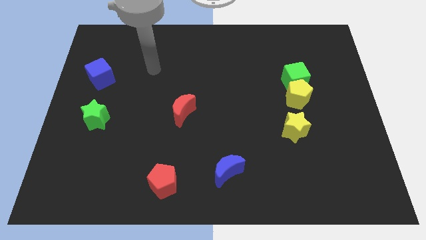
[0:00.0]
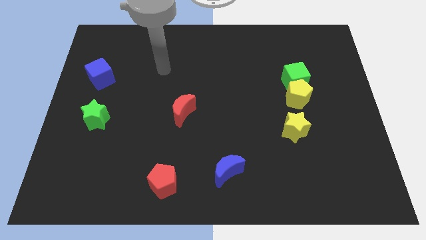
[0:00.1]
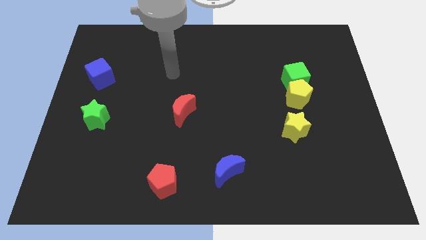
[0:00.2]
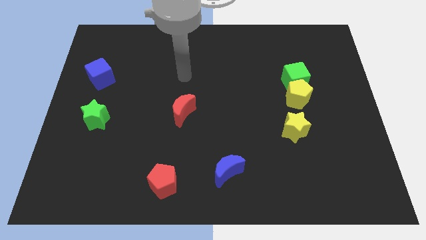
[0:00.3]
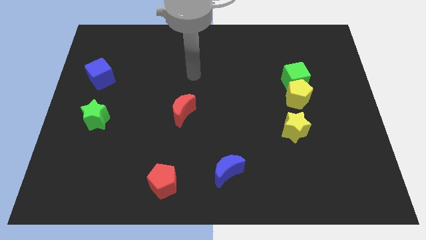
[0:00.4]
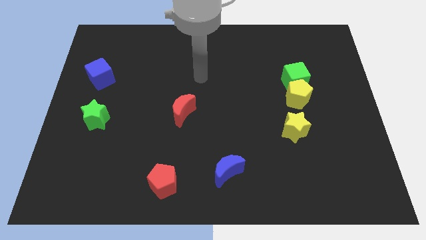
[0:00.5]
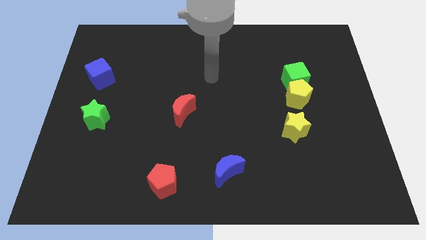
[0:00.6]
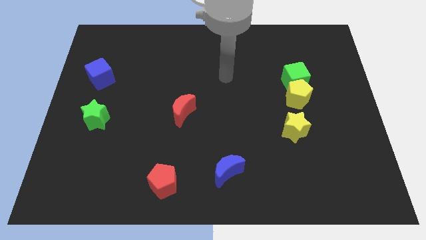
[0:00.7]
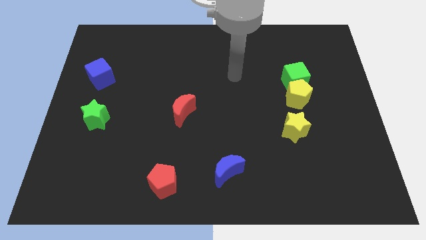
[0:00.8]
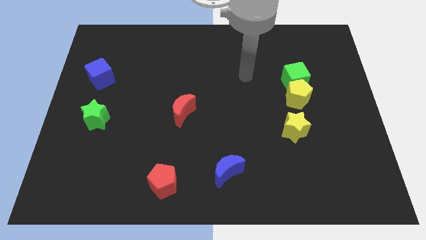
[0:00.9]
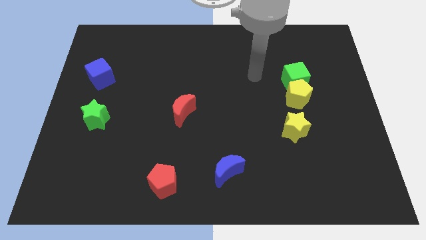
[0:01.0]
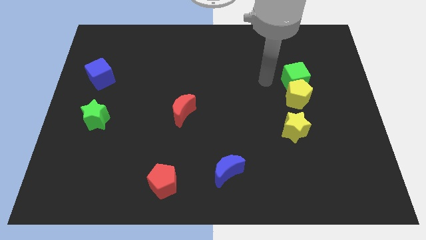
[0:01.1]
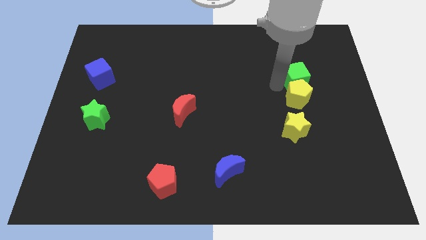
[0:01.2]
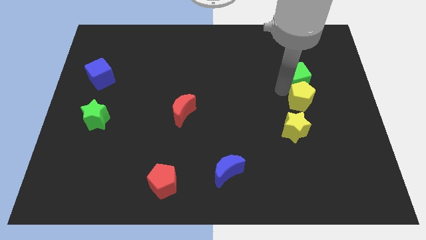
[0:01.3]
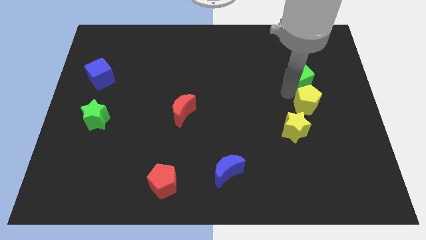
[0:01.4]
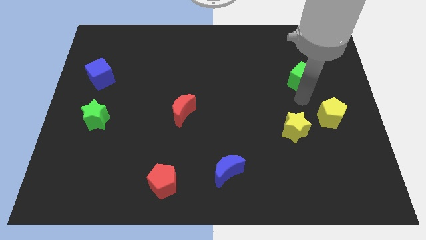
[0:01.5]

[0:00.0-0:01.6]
separate the green cube from the yellow pentagon

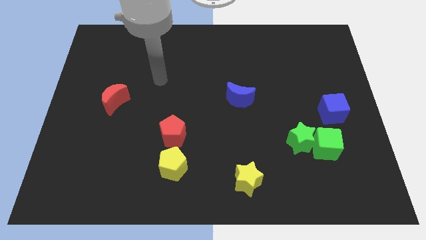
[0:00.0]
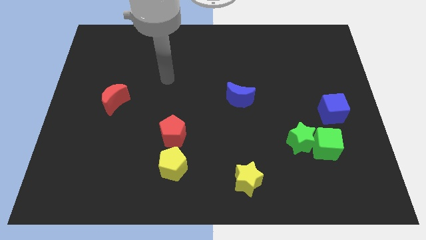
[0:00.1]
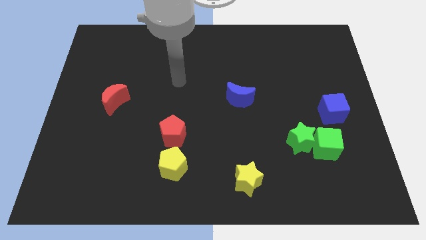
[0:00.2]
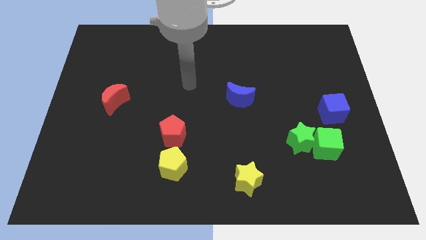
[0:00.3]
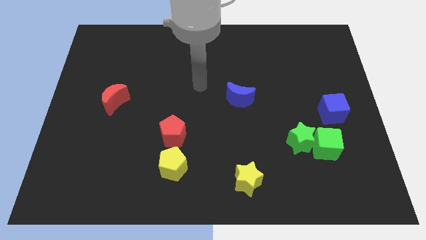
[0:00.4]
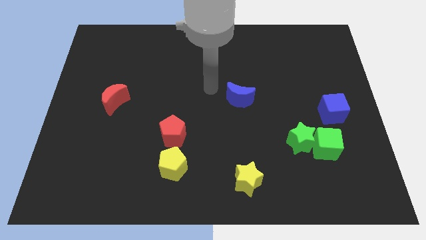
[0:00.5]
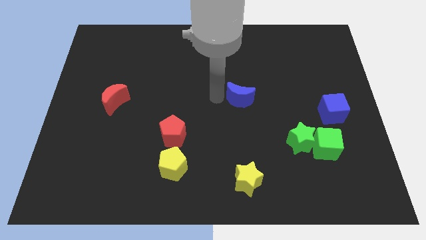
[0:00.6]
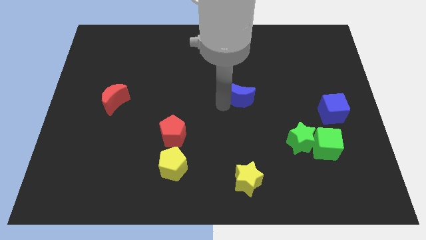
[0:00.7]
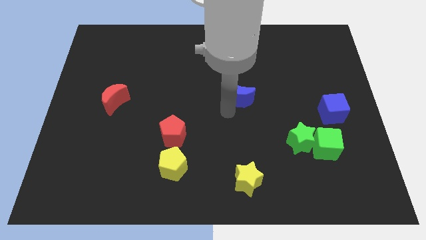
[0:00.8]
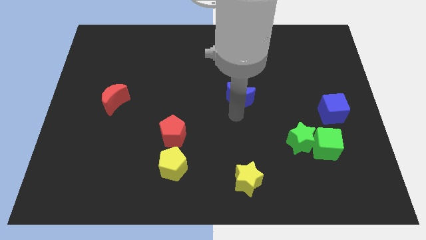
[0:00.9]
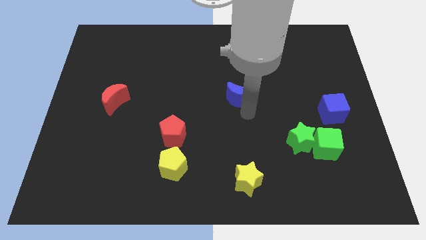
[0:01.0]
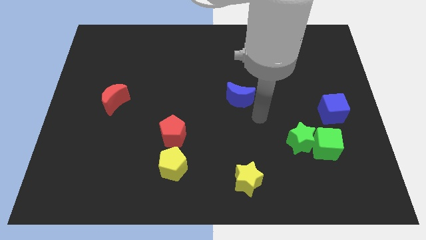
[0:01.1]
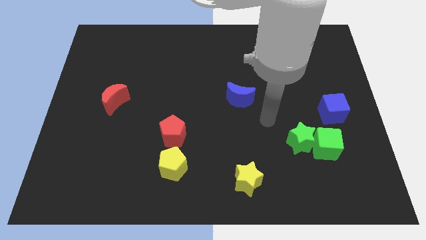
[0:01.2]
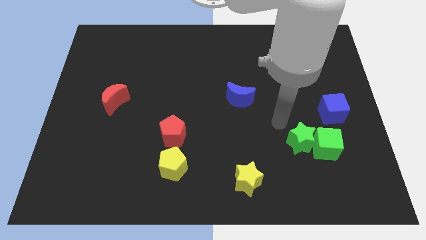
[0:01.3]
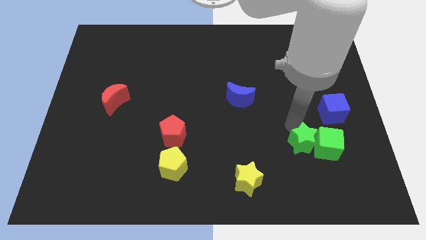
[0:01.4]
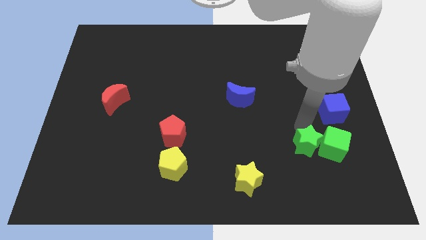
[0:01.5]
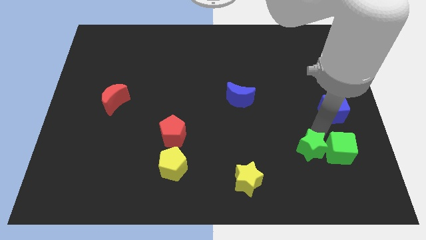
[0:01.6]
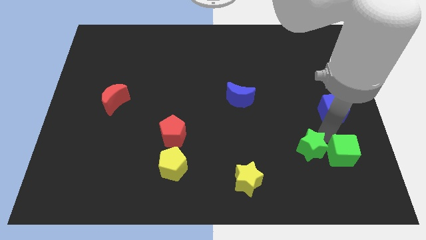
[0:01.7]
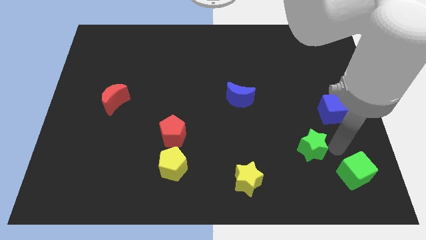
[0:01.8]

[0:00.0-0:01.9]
pull the green star apart from the green cube

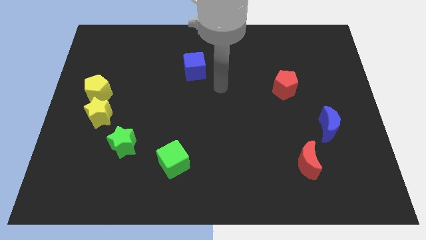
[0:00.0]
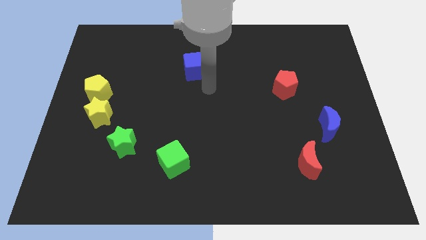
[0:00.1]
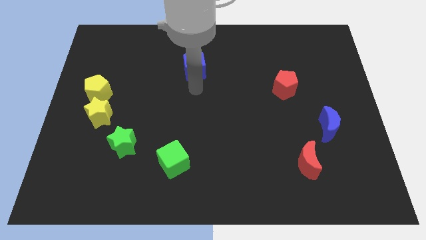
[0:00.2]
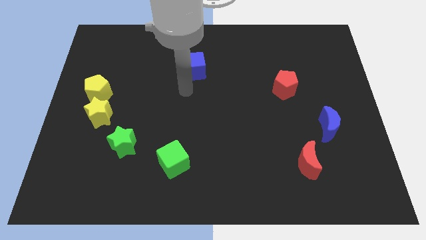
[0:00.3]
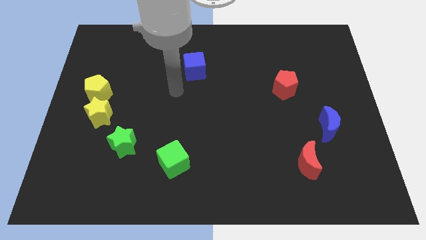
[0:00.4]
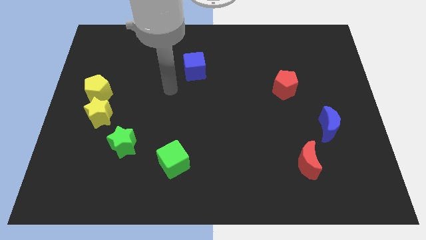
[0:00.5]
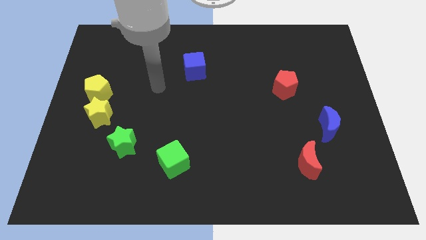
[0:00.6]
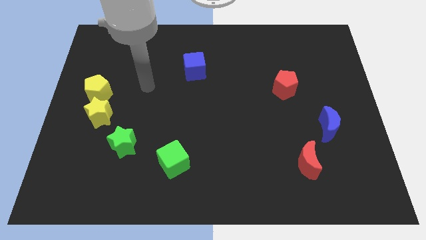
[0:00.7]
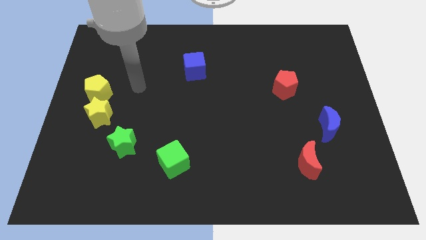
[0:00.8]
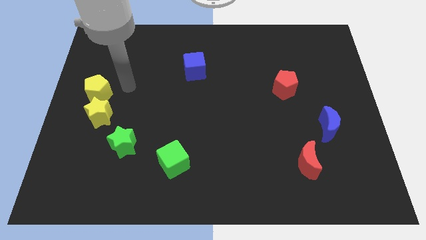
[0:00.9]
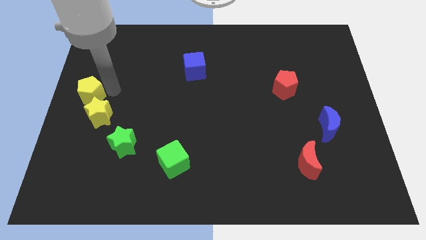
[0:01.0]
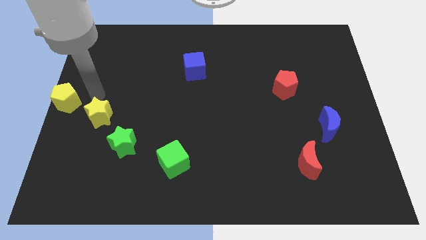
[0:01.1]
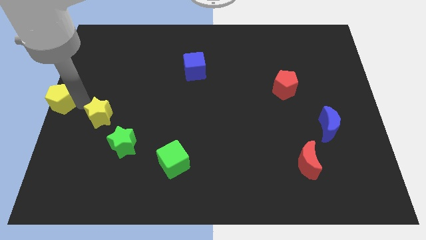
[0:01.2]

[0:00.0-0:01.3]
separate the yellow star from the yellow pentagon

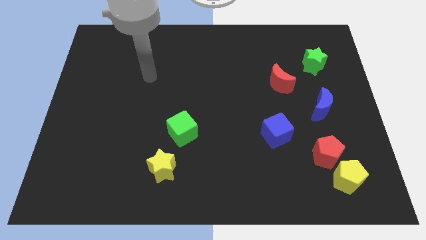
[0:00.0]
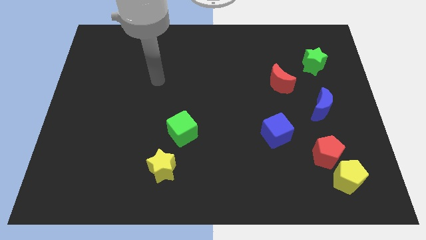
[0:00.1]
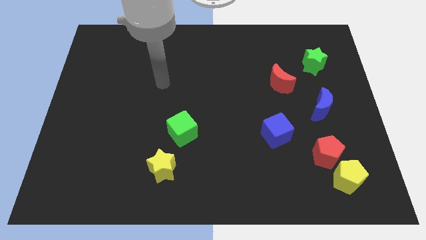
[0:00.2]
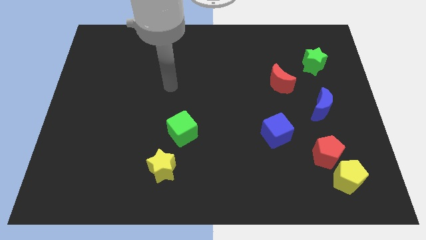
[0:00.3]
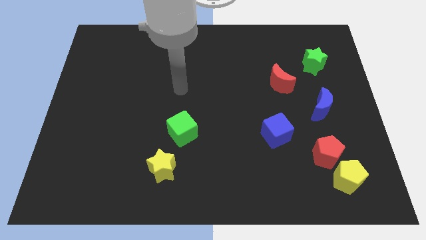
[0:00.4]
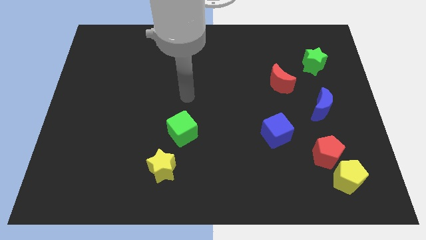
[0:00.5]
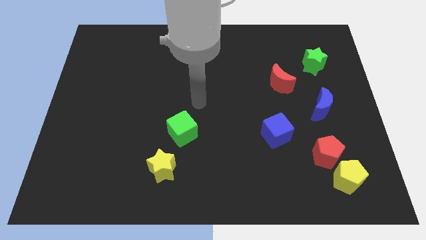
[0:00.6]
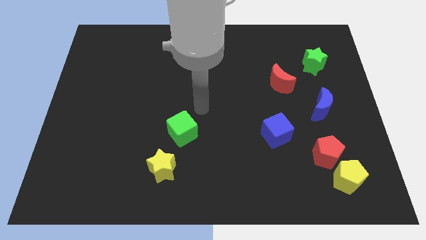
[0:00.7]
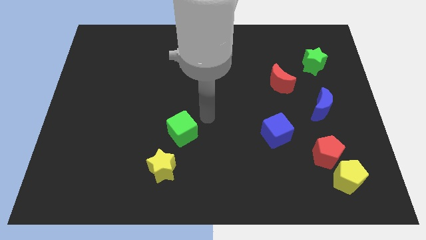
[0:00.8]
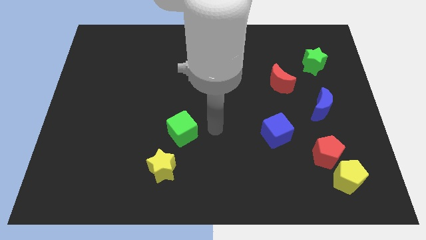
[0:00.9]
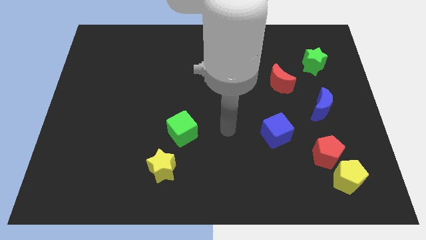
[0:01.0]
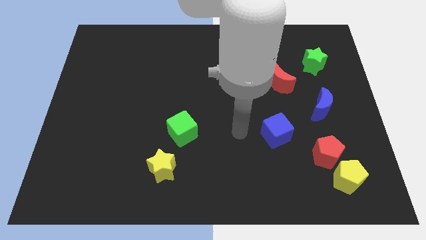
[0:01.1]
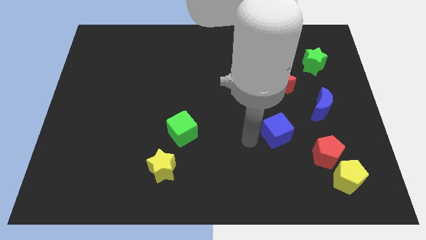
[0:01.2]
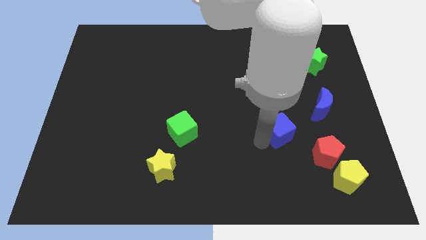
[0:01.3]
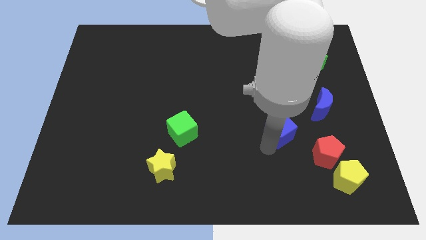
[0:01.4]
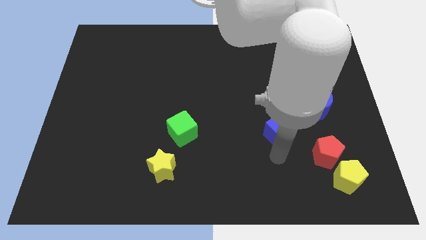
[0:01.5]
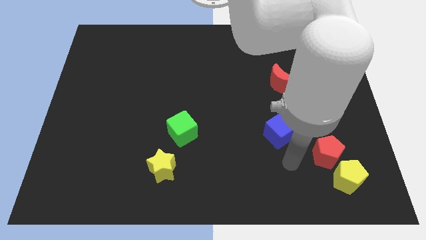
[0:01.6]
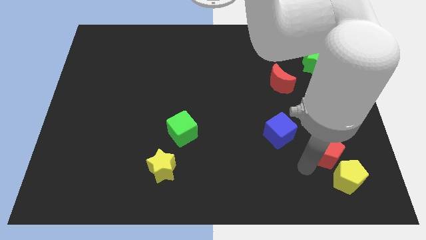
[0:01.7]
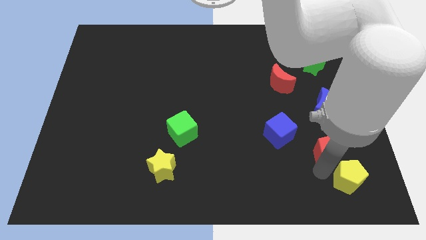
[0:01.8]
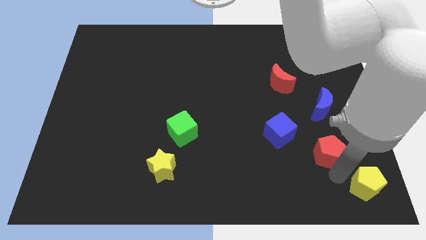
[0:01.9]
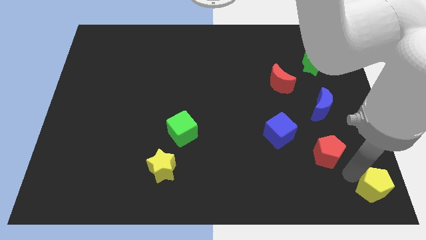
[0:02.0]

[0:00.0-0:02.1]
pull the red pentagon apart from the yellow pentagon

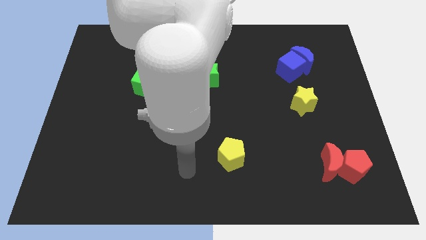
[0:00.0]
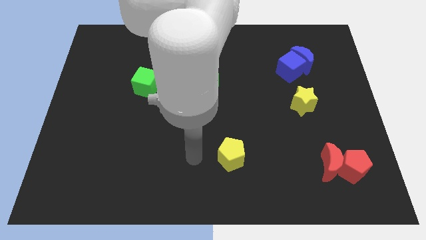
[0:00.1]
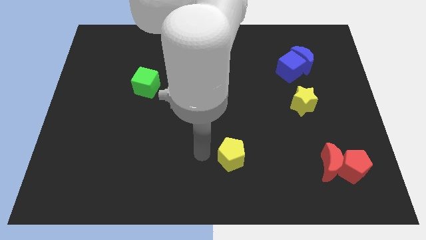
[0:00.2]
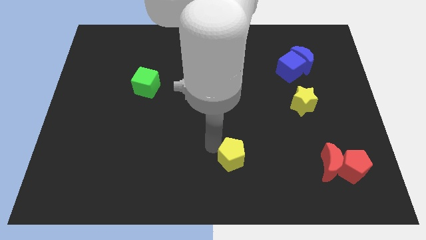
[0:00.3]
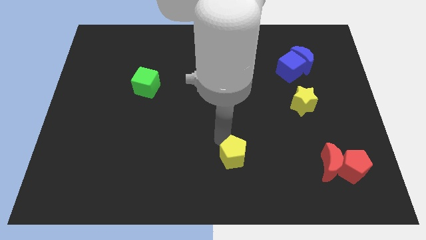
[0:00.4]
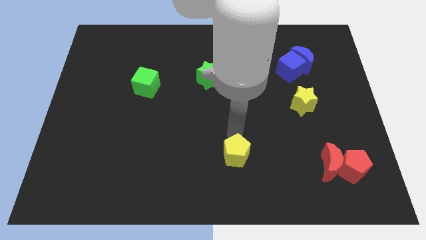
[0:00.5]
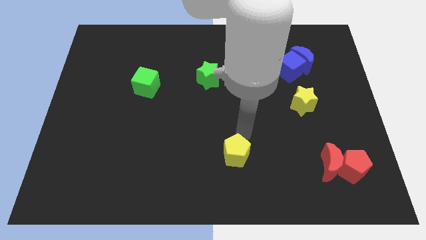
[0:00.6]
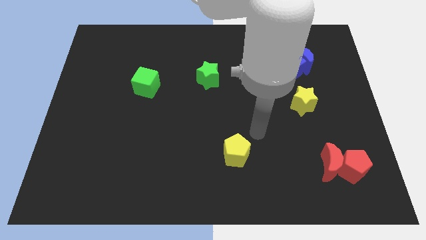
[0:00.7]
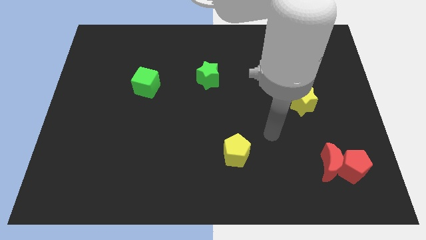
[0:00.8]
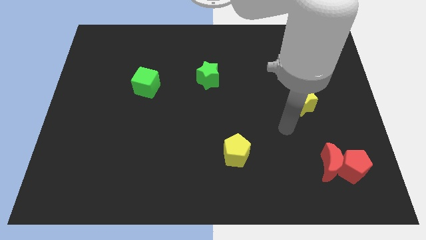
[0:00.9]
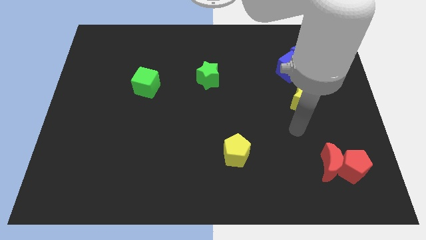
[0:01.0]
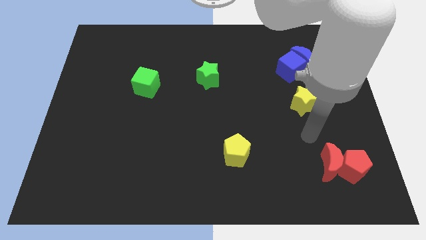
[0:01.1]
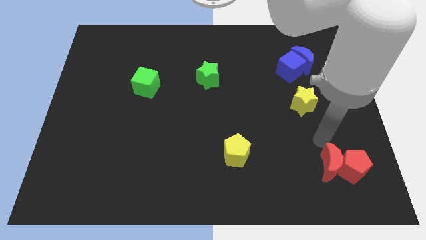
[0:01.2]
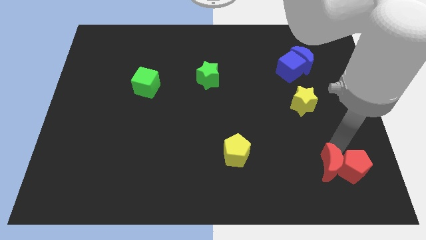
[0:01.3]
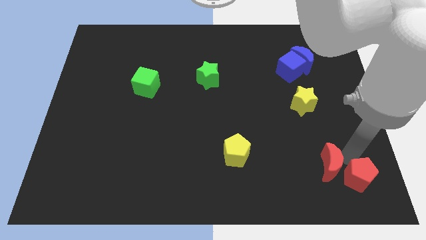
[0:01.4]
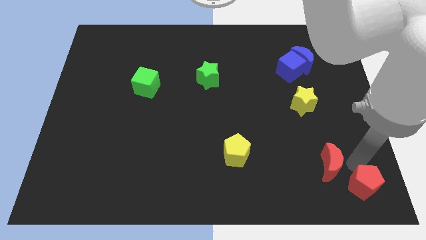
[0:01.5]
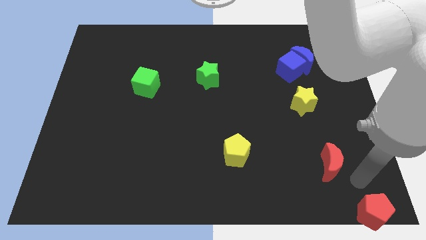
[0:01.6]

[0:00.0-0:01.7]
separate the red moon from the red pentagon

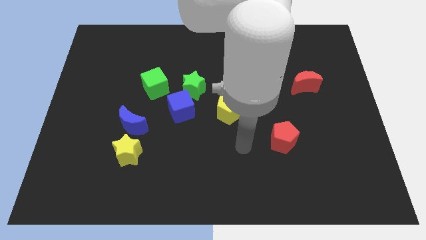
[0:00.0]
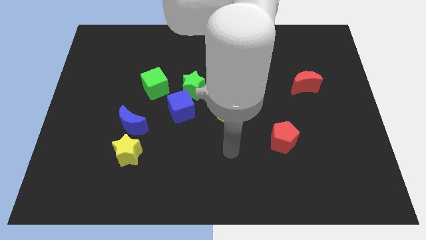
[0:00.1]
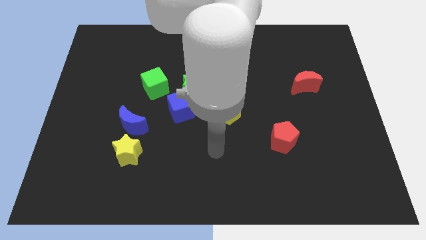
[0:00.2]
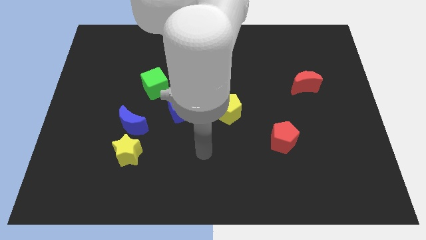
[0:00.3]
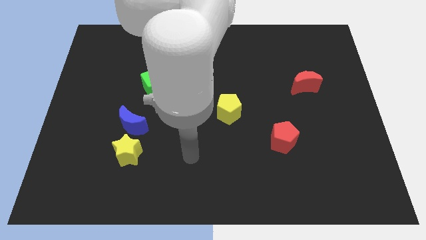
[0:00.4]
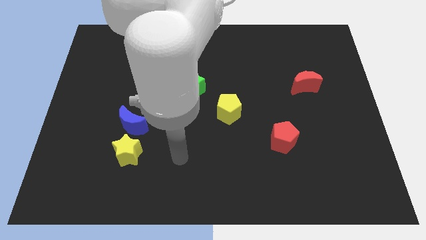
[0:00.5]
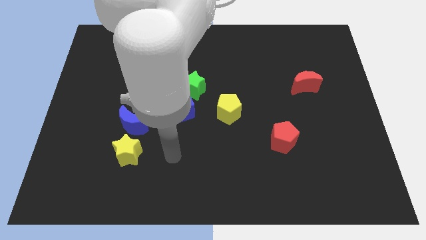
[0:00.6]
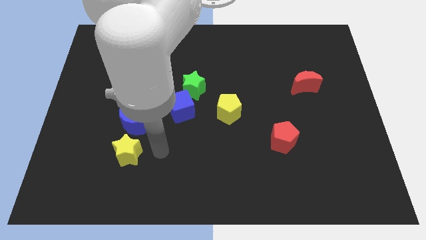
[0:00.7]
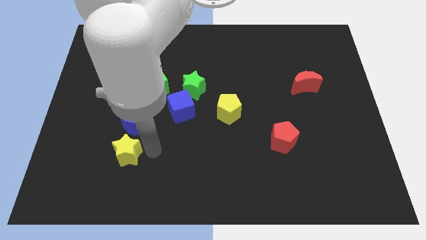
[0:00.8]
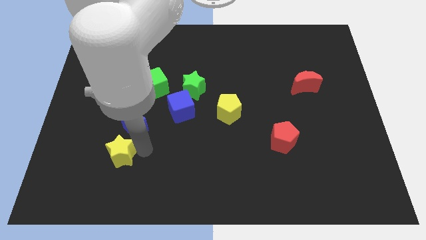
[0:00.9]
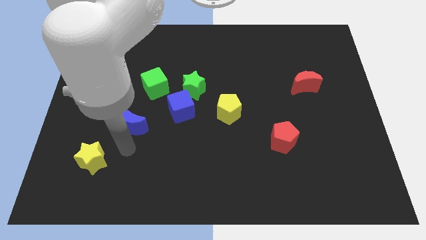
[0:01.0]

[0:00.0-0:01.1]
move the blue moon away from the yellow star
